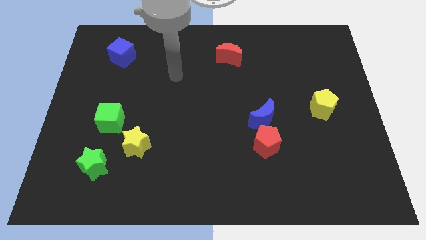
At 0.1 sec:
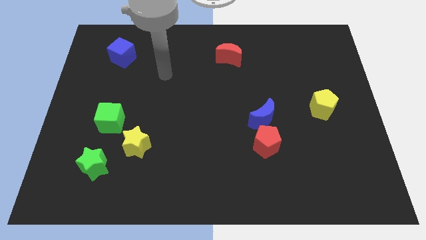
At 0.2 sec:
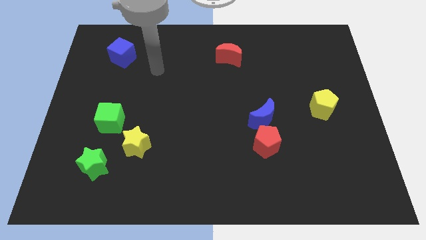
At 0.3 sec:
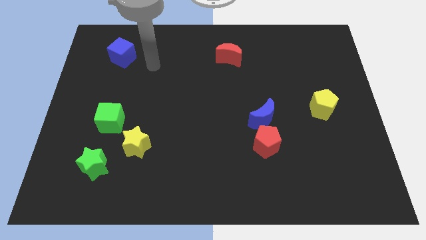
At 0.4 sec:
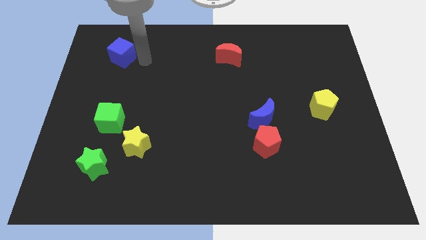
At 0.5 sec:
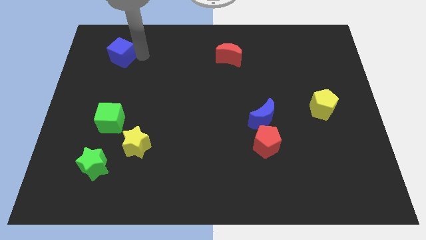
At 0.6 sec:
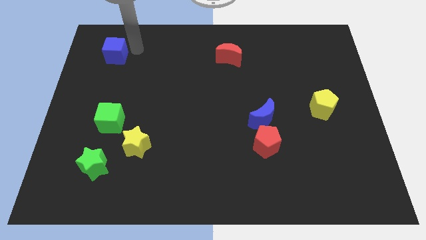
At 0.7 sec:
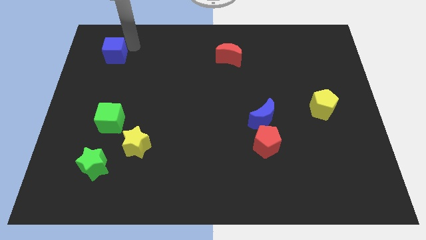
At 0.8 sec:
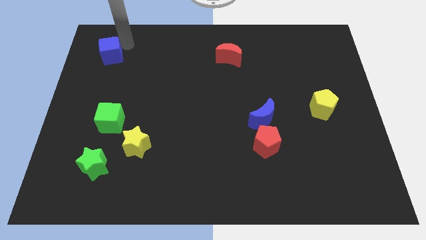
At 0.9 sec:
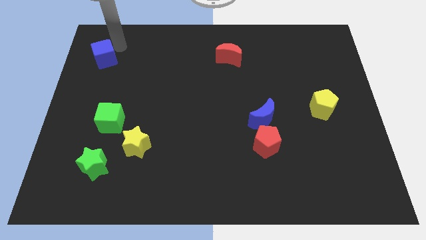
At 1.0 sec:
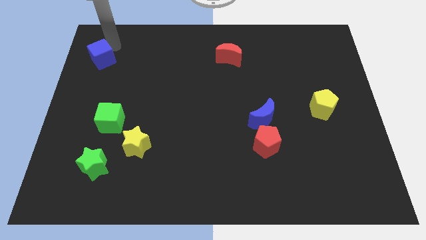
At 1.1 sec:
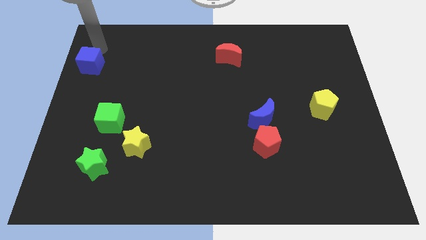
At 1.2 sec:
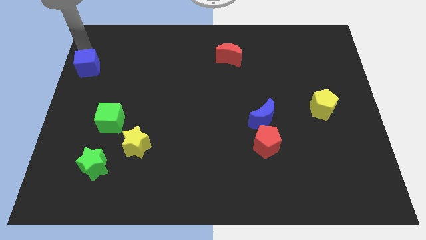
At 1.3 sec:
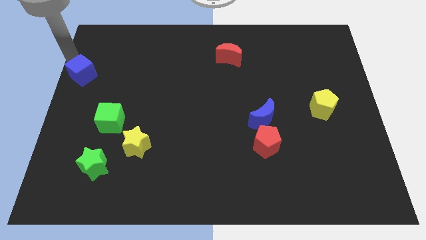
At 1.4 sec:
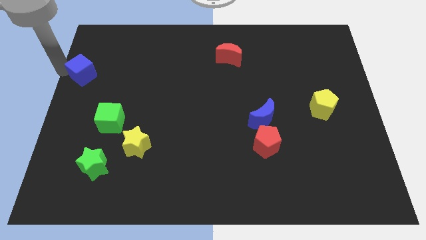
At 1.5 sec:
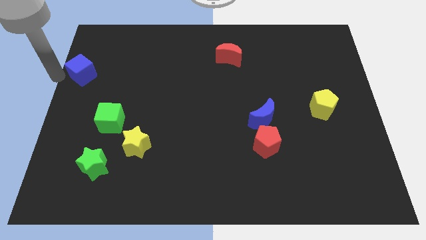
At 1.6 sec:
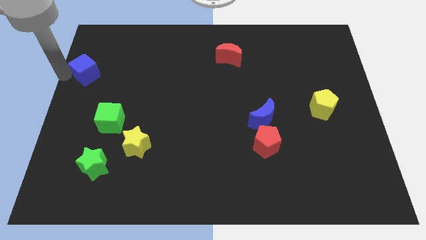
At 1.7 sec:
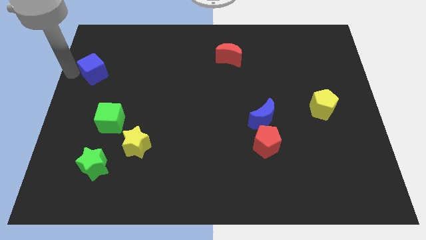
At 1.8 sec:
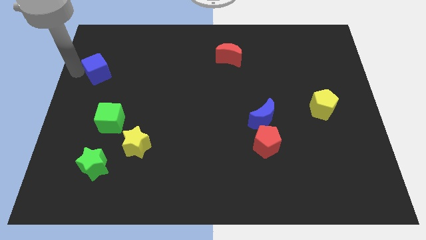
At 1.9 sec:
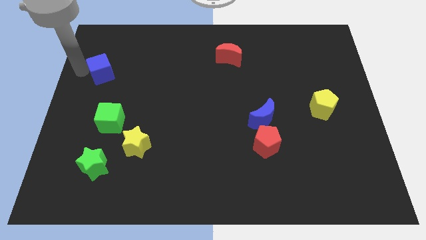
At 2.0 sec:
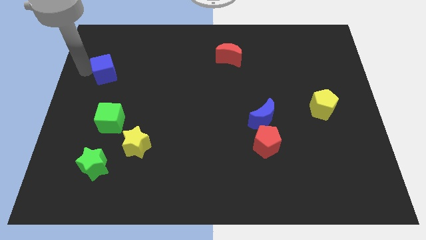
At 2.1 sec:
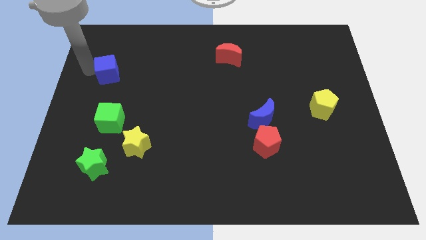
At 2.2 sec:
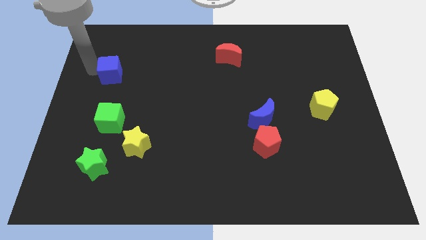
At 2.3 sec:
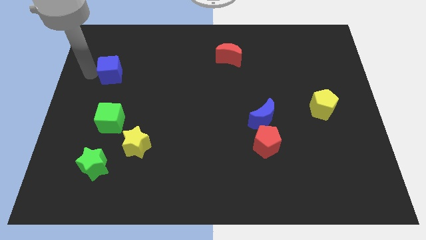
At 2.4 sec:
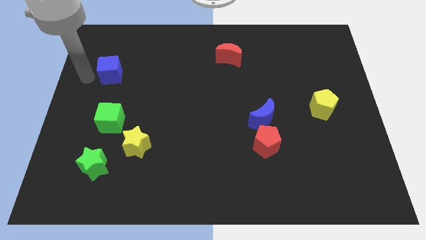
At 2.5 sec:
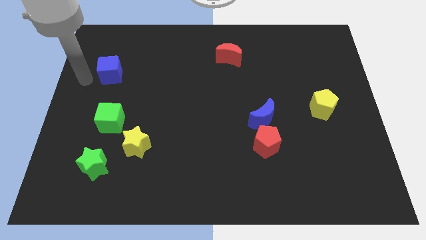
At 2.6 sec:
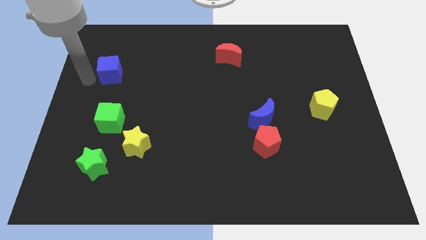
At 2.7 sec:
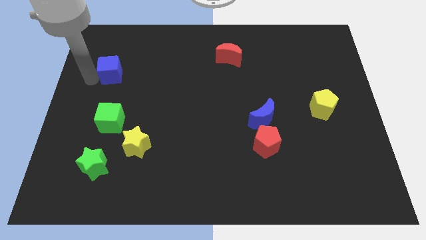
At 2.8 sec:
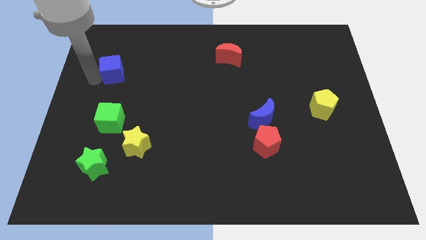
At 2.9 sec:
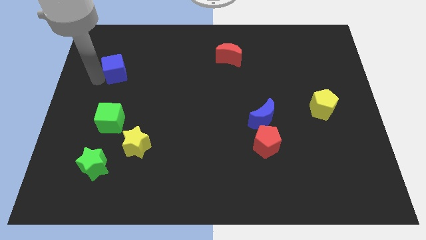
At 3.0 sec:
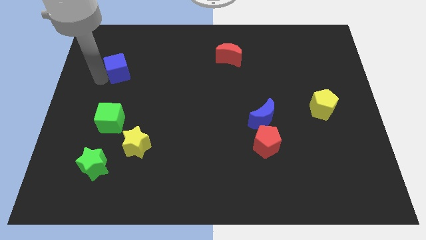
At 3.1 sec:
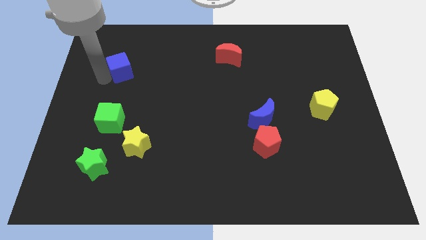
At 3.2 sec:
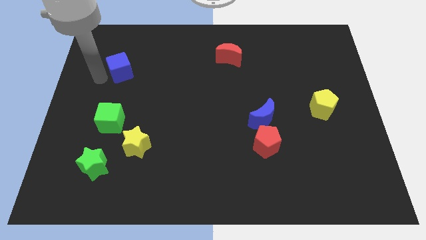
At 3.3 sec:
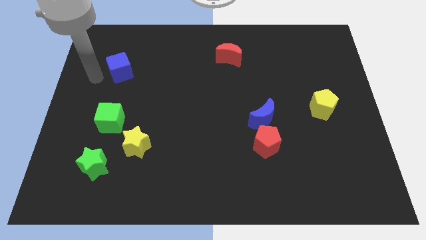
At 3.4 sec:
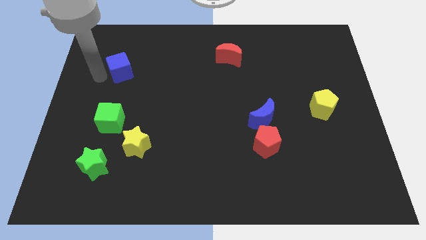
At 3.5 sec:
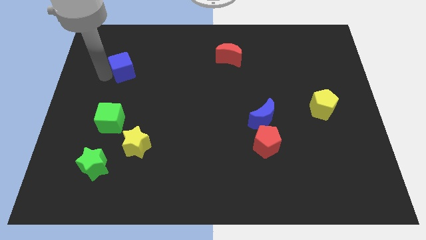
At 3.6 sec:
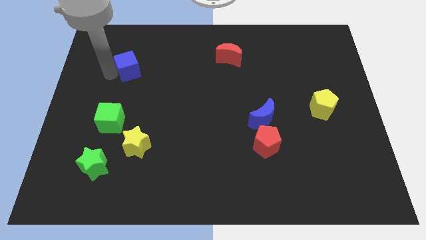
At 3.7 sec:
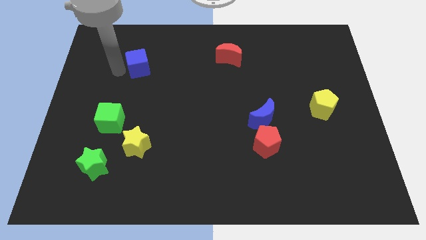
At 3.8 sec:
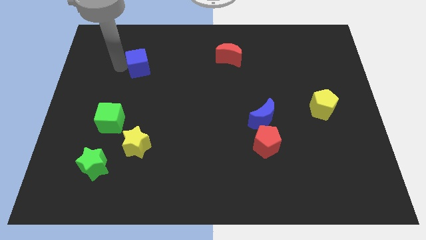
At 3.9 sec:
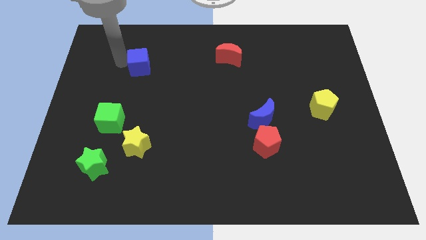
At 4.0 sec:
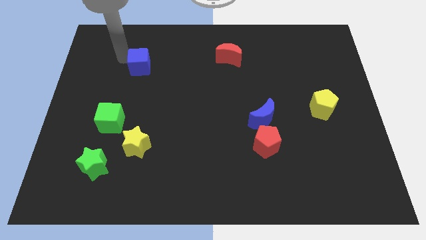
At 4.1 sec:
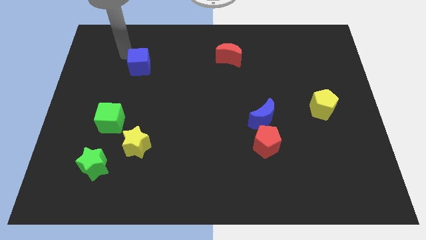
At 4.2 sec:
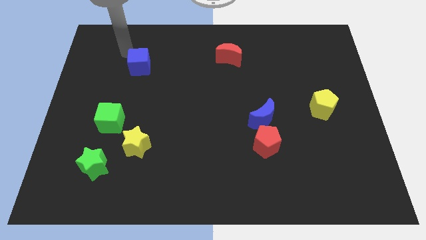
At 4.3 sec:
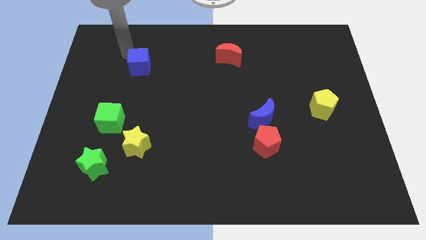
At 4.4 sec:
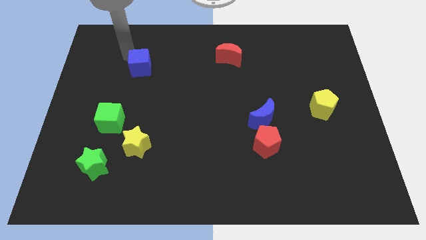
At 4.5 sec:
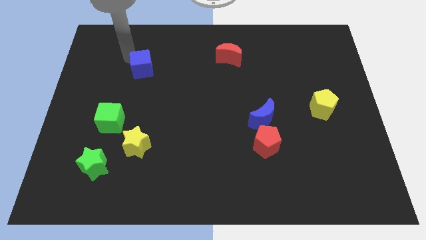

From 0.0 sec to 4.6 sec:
slide the blue cube downwards and to the right diagonally a bit

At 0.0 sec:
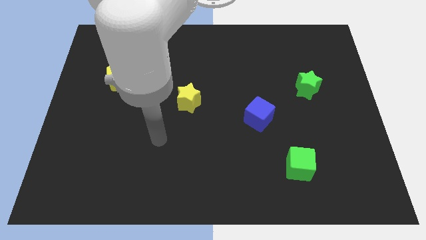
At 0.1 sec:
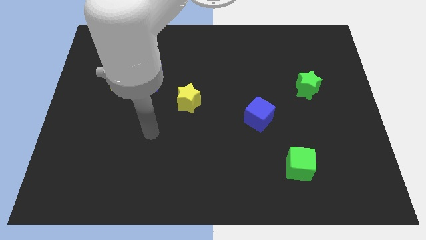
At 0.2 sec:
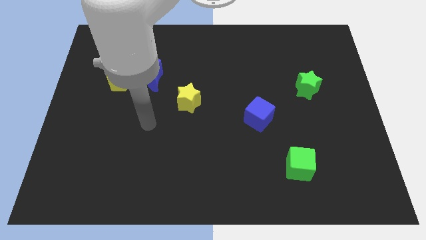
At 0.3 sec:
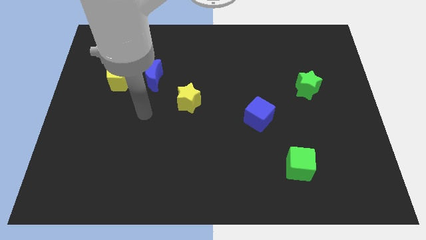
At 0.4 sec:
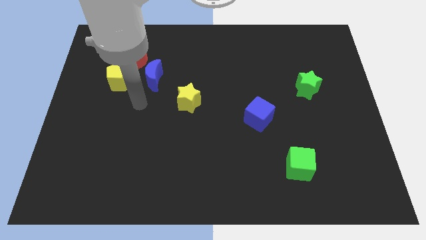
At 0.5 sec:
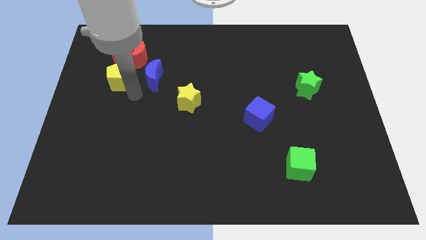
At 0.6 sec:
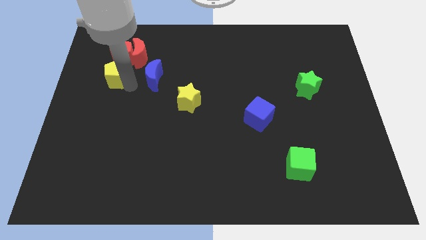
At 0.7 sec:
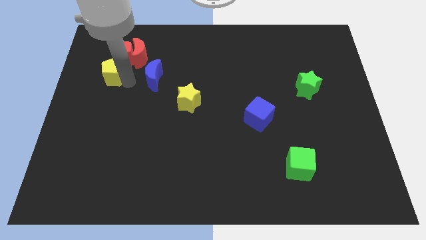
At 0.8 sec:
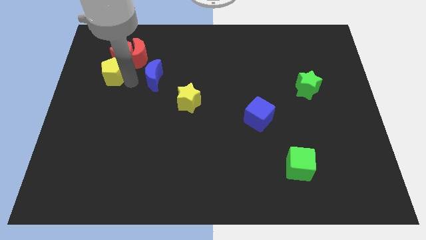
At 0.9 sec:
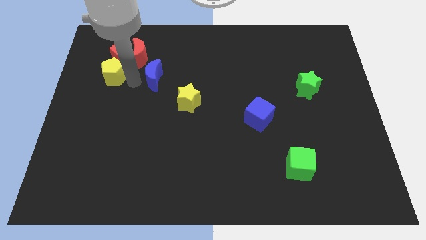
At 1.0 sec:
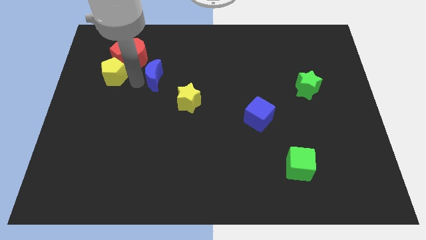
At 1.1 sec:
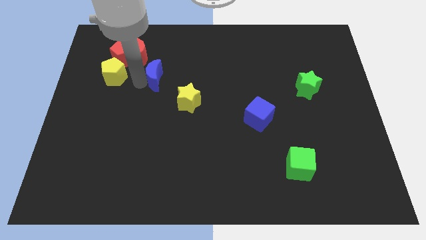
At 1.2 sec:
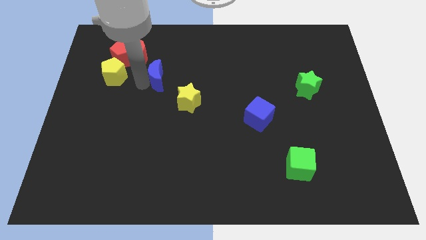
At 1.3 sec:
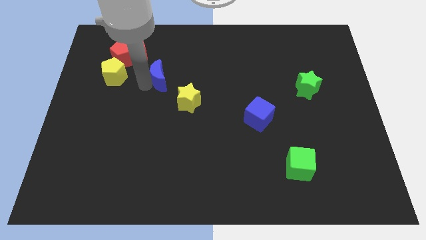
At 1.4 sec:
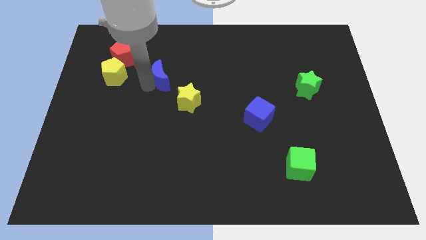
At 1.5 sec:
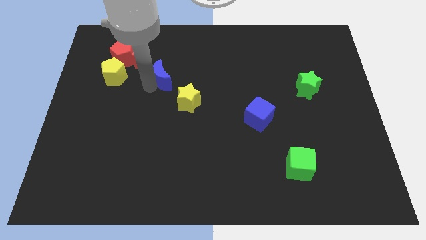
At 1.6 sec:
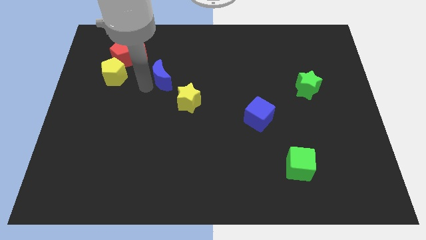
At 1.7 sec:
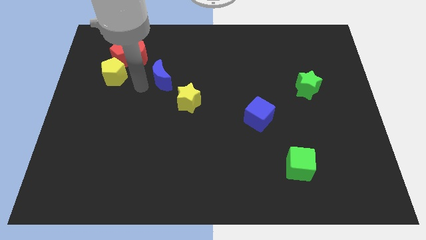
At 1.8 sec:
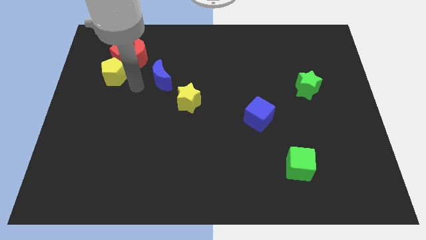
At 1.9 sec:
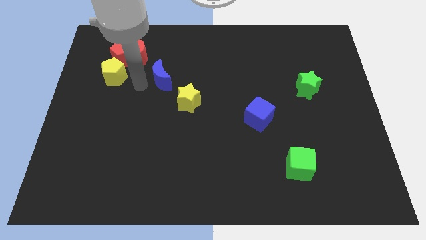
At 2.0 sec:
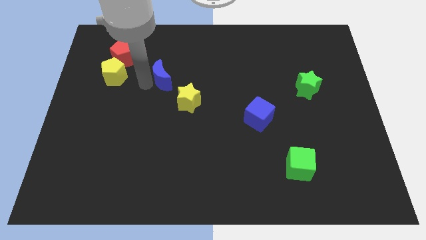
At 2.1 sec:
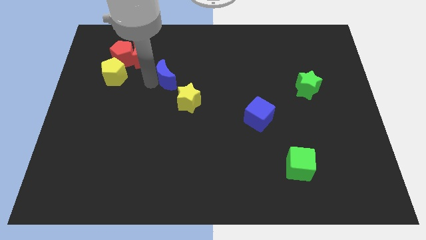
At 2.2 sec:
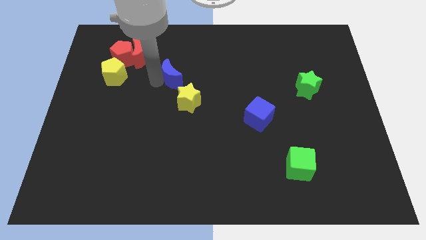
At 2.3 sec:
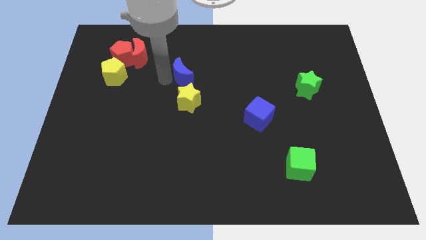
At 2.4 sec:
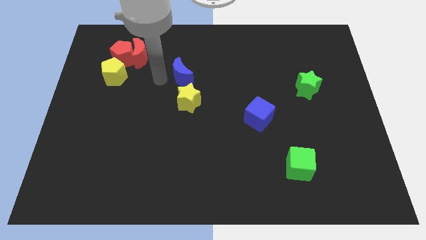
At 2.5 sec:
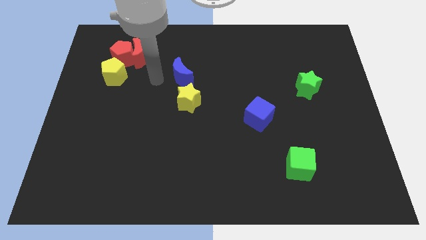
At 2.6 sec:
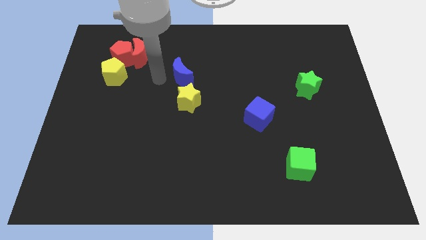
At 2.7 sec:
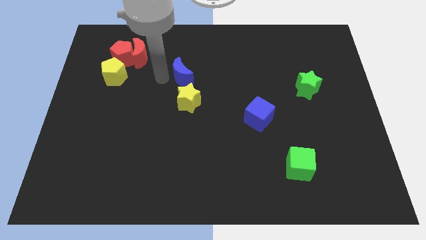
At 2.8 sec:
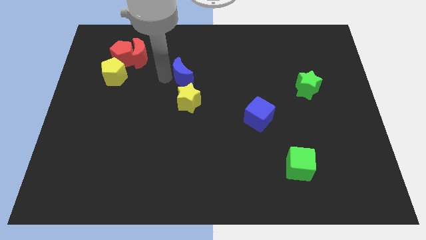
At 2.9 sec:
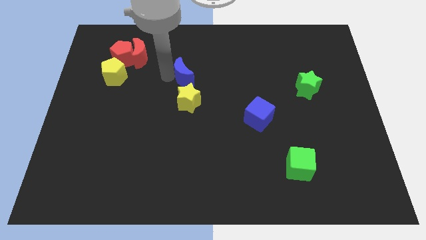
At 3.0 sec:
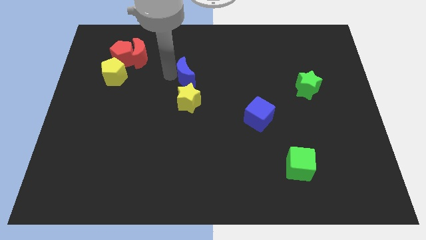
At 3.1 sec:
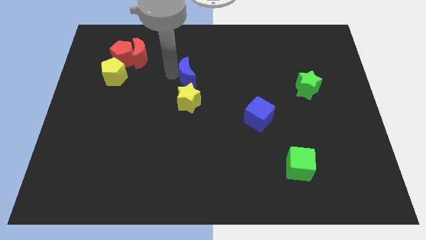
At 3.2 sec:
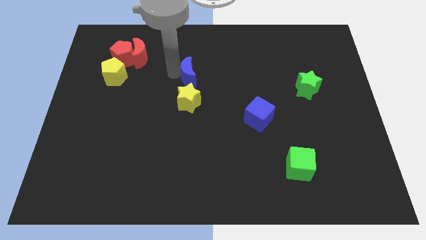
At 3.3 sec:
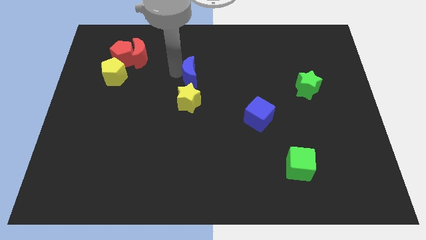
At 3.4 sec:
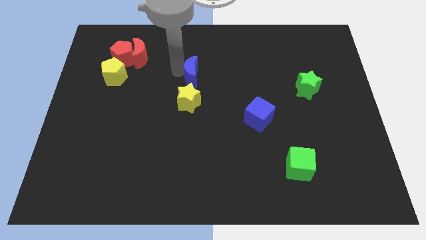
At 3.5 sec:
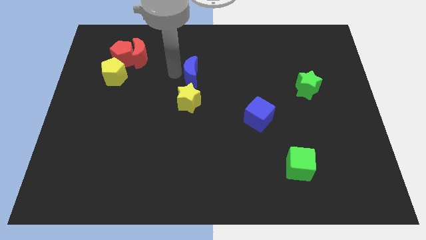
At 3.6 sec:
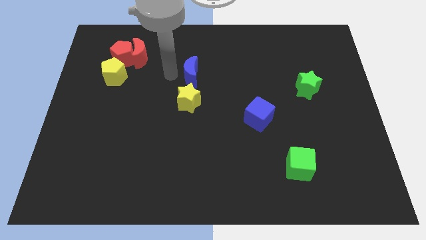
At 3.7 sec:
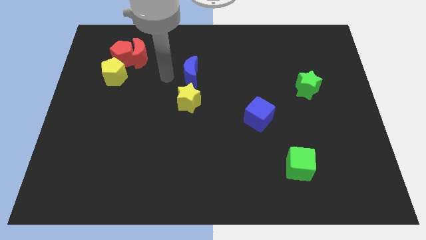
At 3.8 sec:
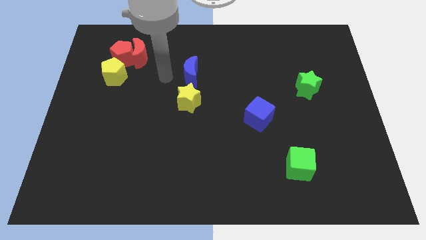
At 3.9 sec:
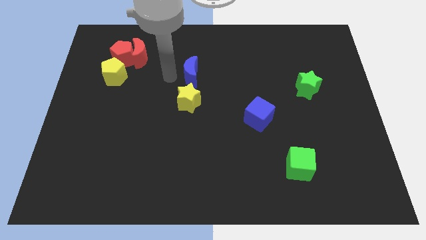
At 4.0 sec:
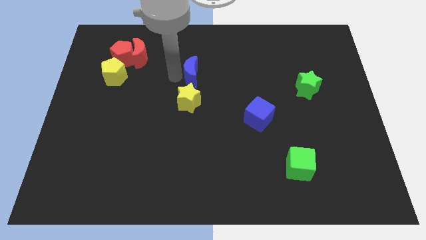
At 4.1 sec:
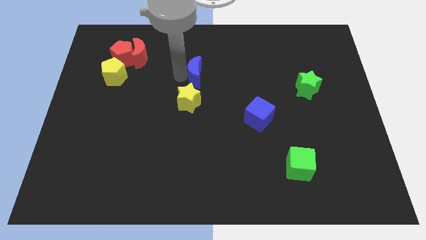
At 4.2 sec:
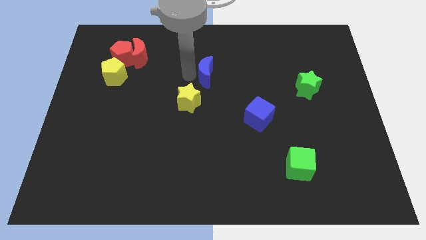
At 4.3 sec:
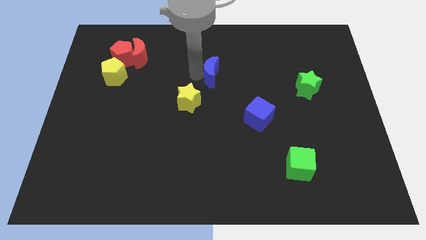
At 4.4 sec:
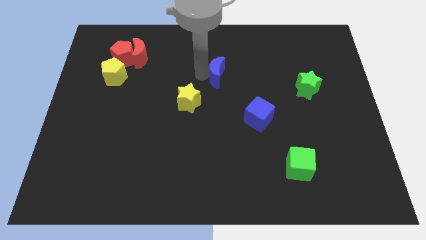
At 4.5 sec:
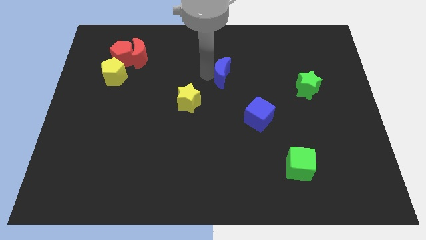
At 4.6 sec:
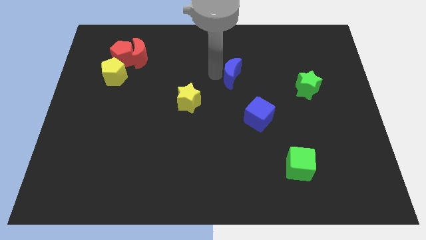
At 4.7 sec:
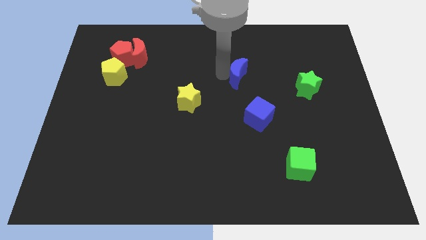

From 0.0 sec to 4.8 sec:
push the blue moon right
